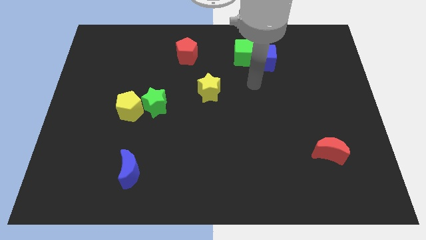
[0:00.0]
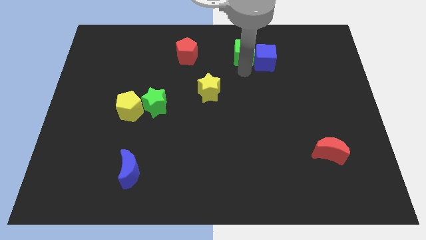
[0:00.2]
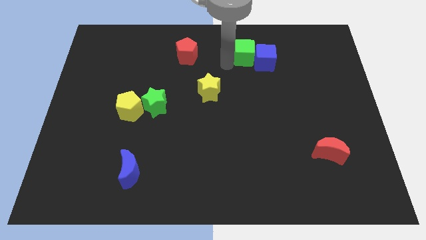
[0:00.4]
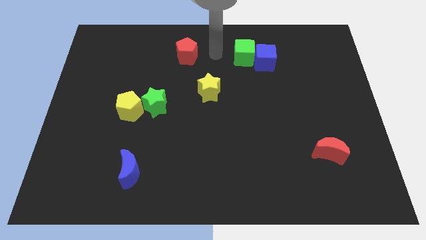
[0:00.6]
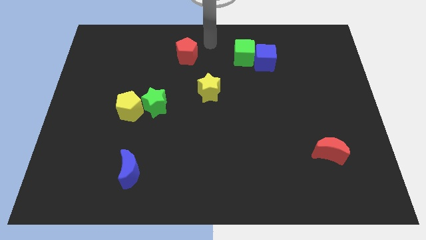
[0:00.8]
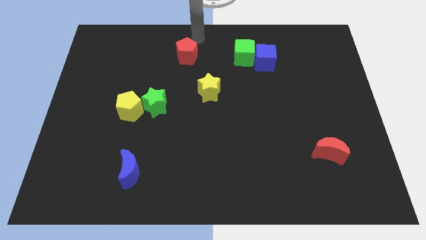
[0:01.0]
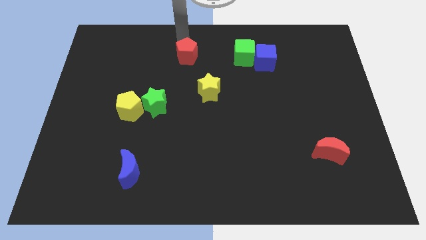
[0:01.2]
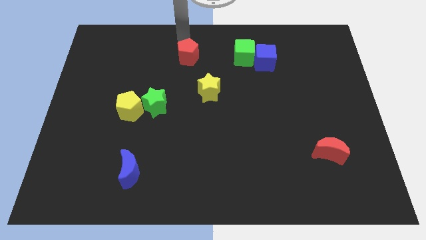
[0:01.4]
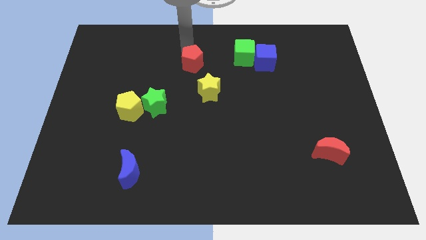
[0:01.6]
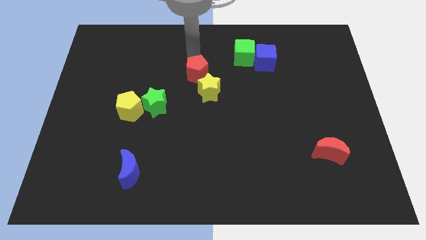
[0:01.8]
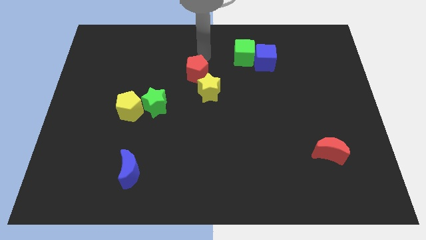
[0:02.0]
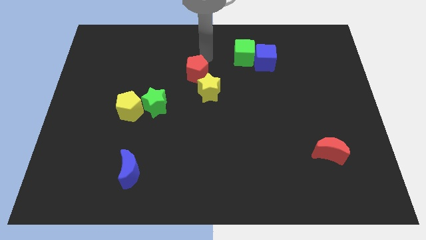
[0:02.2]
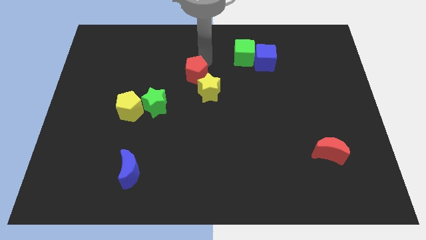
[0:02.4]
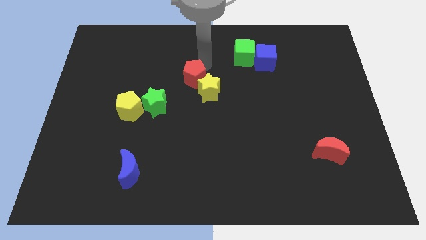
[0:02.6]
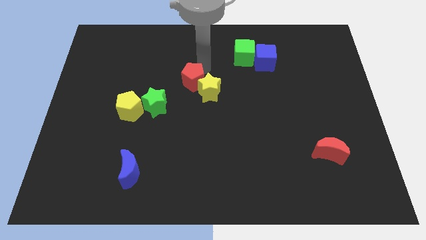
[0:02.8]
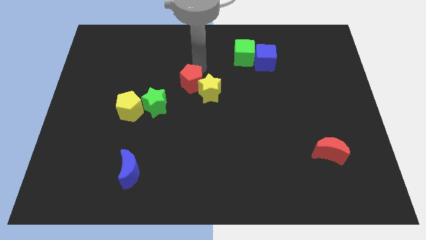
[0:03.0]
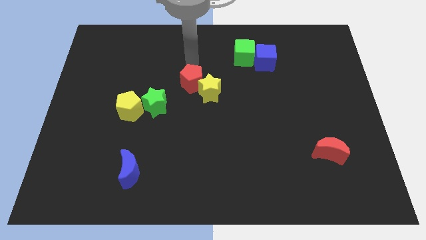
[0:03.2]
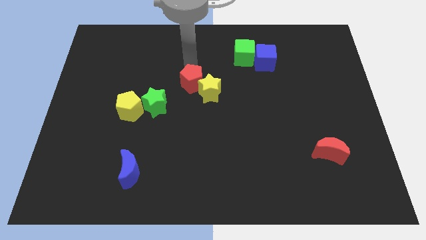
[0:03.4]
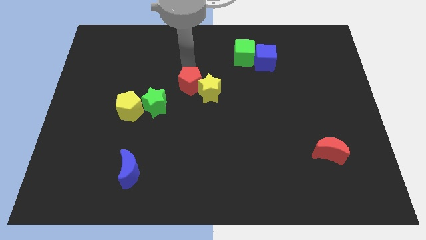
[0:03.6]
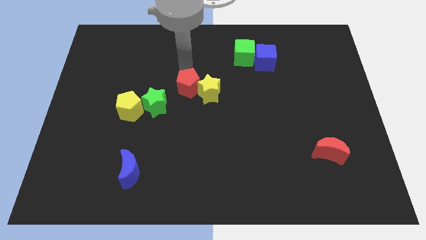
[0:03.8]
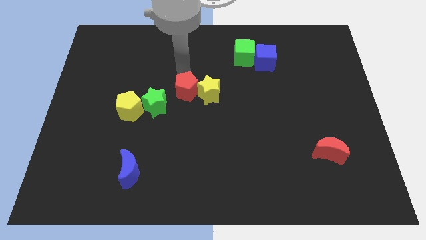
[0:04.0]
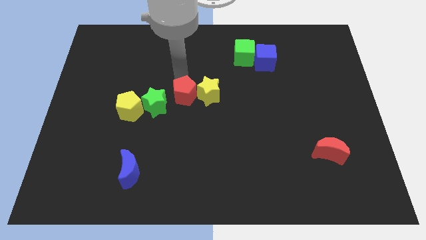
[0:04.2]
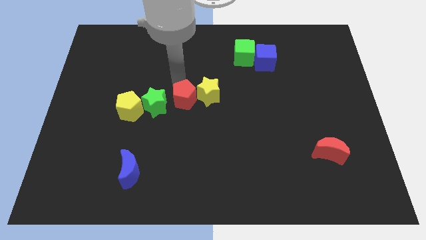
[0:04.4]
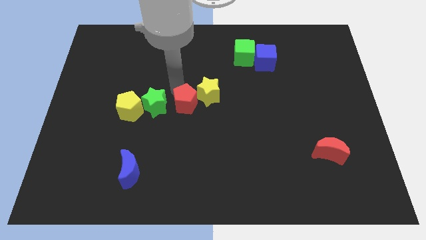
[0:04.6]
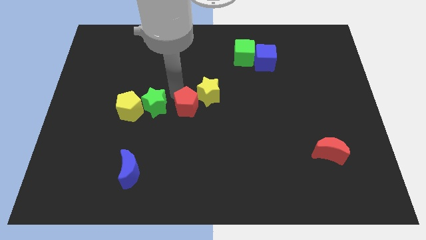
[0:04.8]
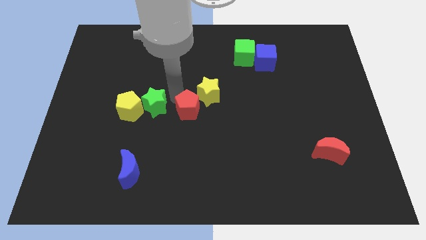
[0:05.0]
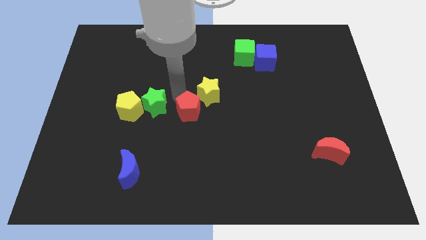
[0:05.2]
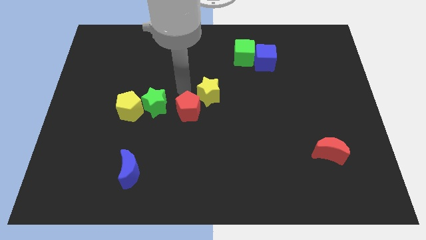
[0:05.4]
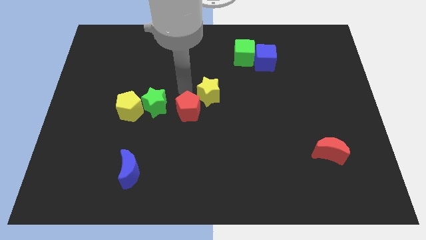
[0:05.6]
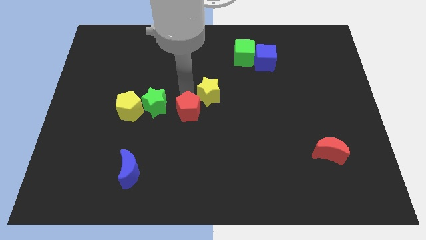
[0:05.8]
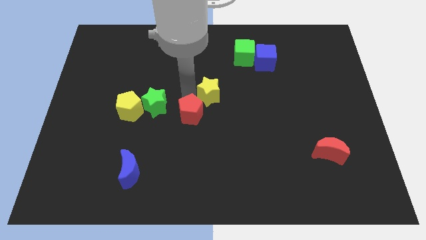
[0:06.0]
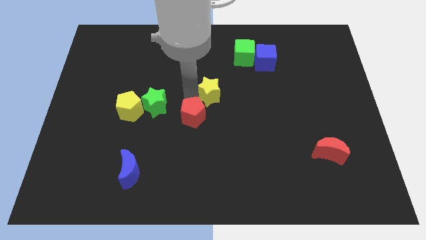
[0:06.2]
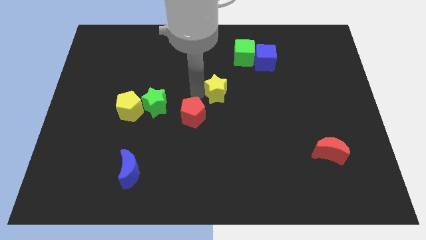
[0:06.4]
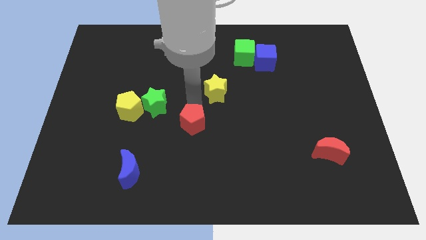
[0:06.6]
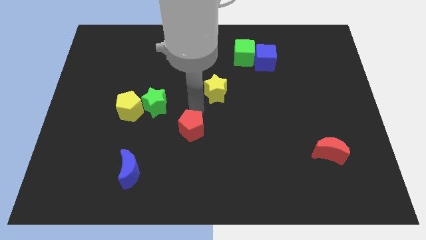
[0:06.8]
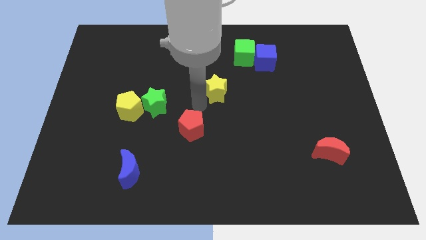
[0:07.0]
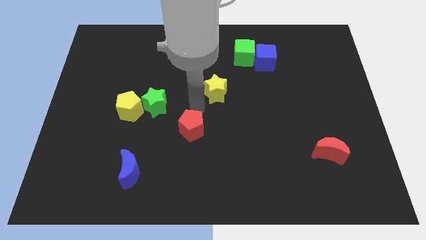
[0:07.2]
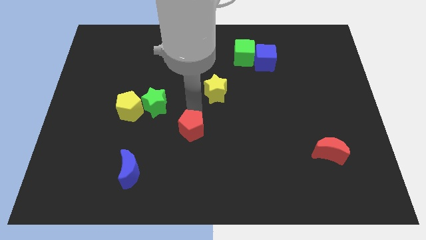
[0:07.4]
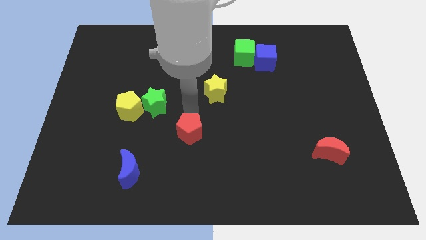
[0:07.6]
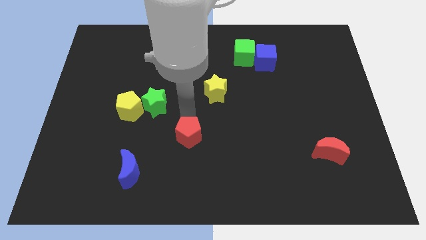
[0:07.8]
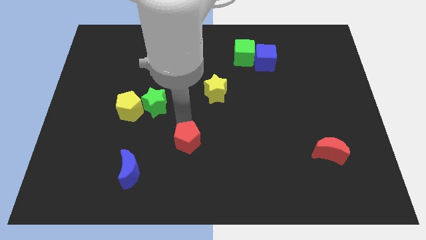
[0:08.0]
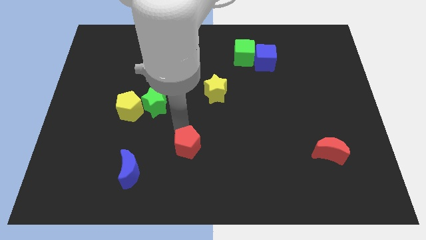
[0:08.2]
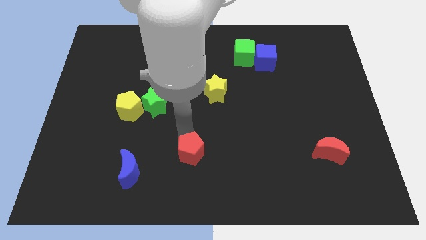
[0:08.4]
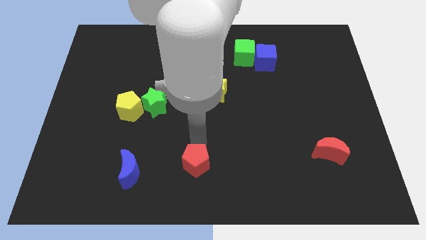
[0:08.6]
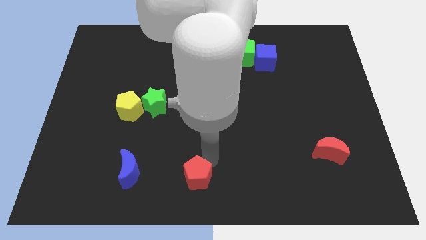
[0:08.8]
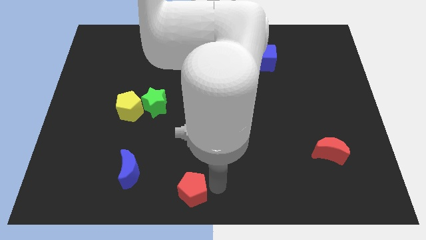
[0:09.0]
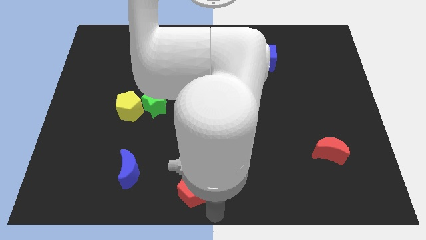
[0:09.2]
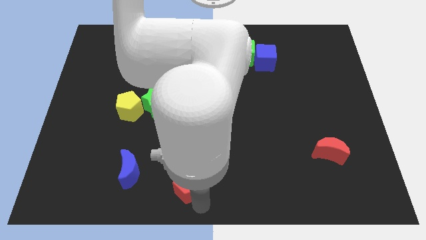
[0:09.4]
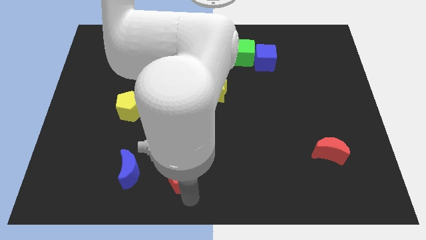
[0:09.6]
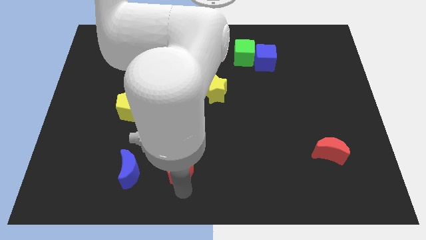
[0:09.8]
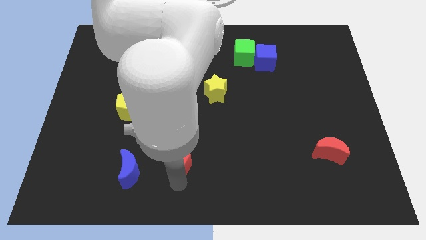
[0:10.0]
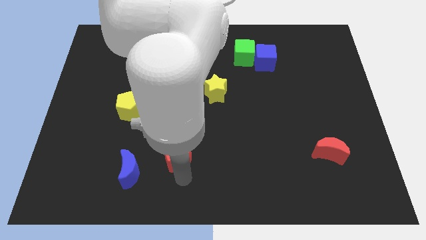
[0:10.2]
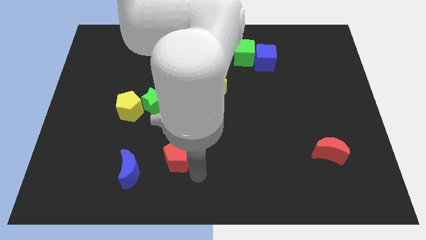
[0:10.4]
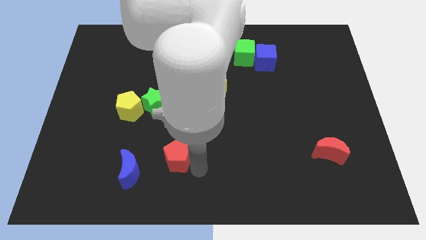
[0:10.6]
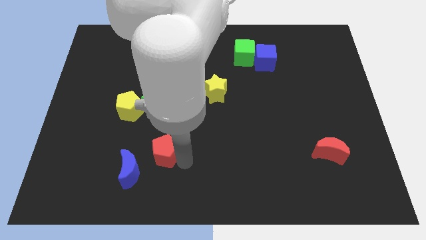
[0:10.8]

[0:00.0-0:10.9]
push the red pentagon to the bottom side of the green star

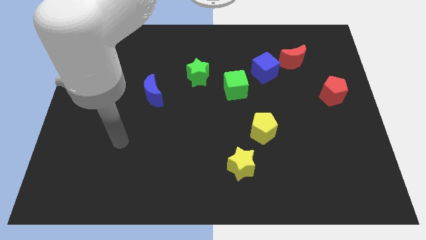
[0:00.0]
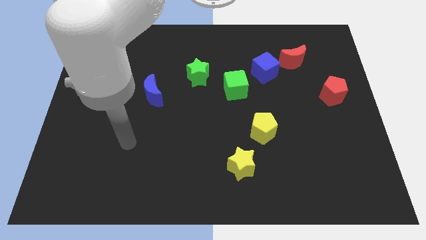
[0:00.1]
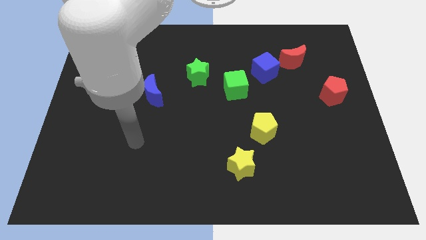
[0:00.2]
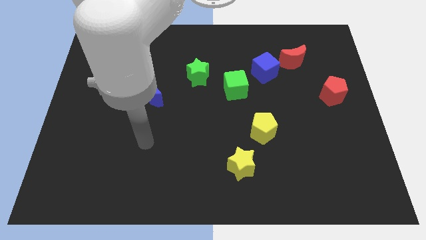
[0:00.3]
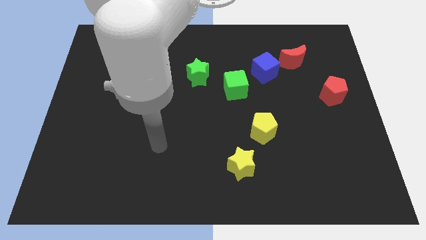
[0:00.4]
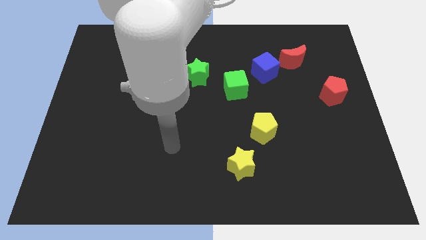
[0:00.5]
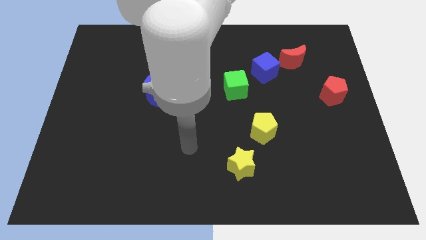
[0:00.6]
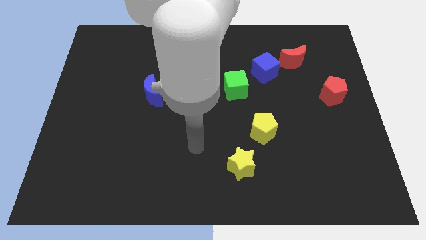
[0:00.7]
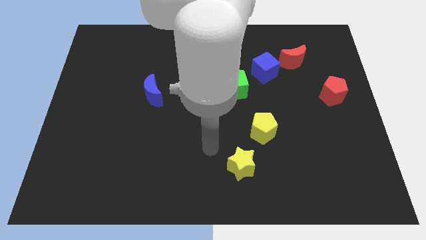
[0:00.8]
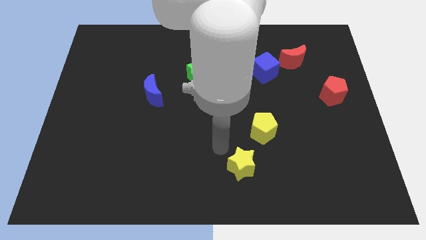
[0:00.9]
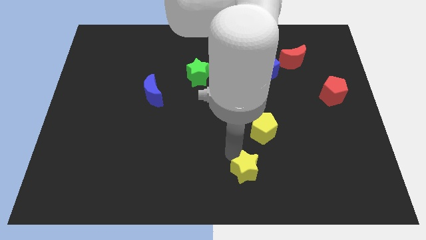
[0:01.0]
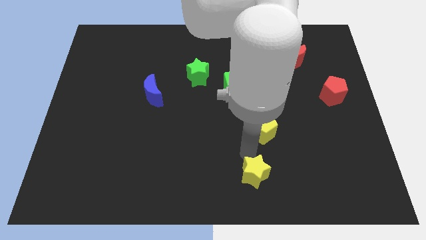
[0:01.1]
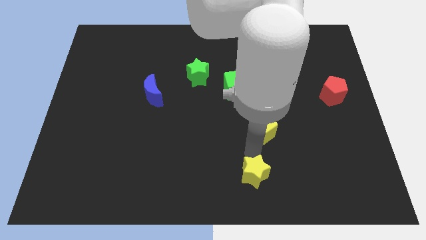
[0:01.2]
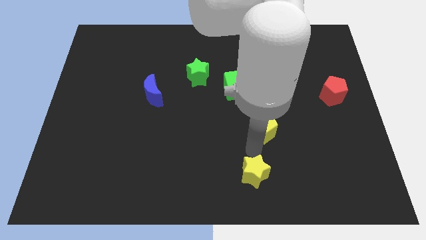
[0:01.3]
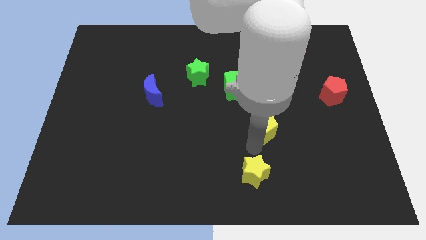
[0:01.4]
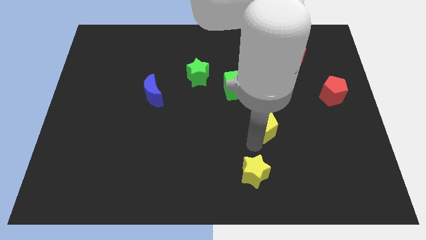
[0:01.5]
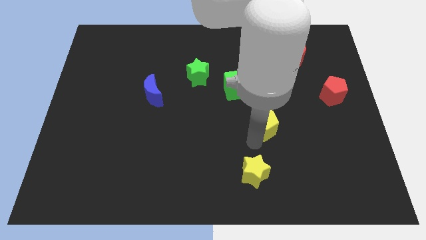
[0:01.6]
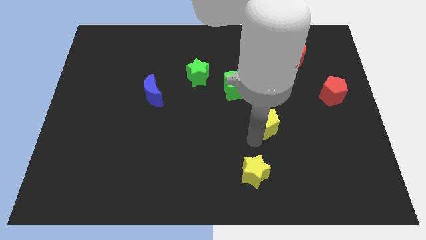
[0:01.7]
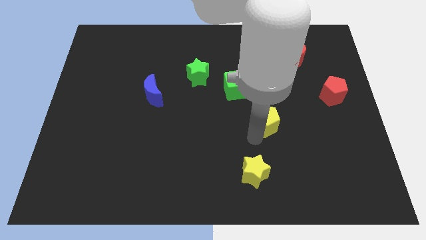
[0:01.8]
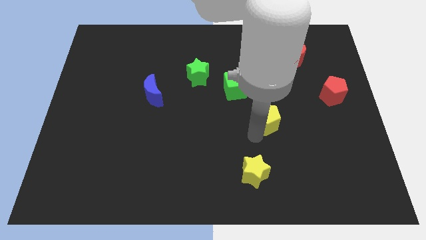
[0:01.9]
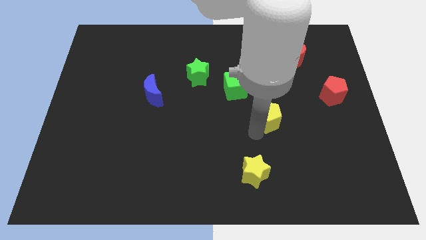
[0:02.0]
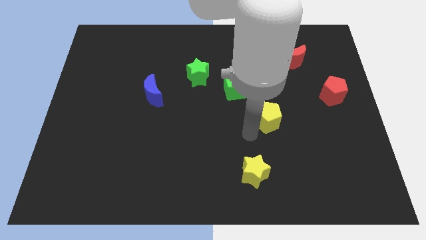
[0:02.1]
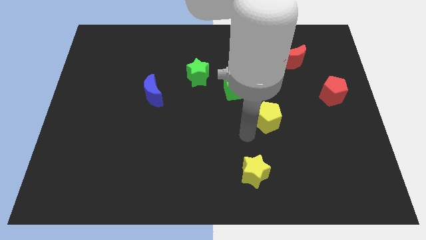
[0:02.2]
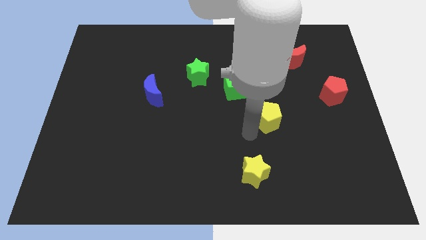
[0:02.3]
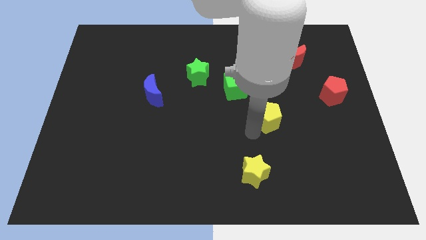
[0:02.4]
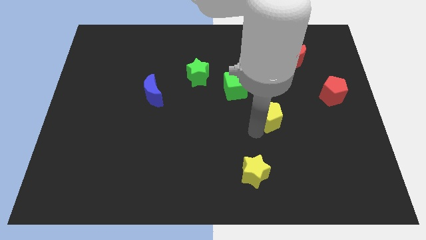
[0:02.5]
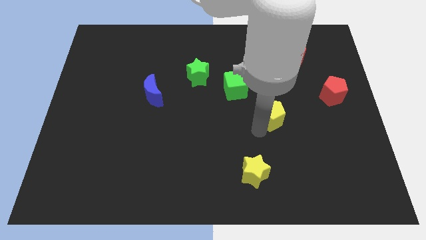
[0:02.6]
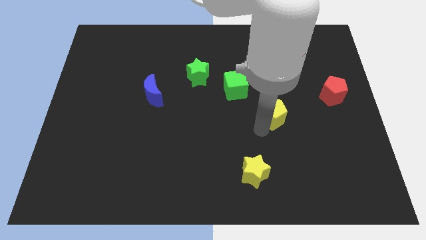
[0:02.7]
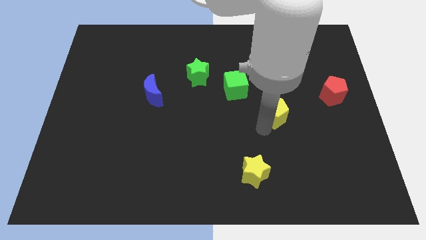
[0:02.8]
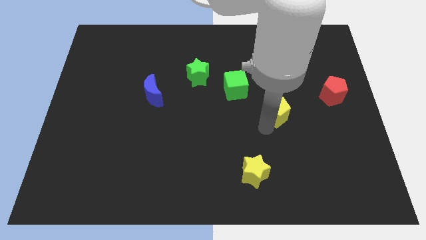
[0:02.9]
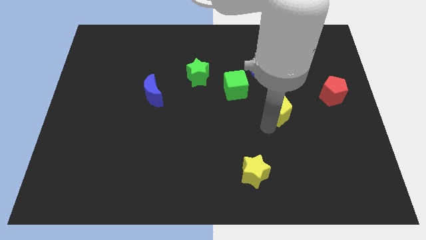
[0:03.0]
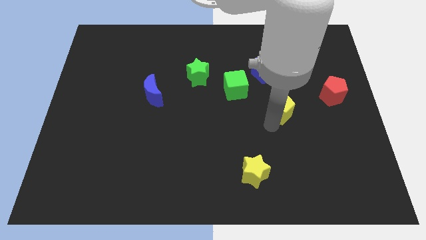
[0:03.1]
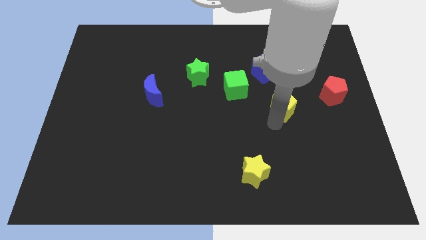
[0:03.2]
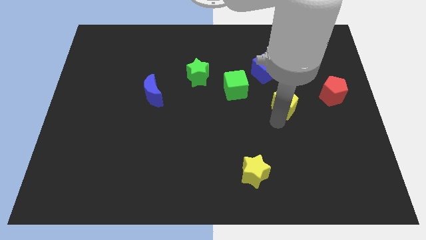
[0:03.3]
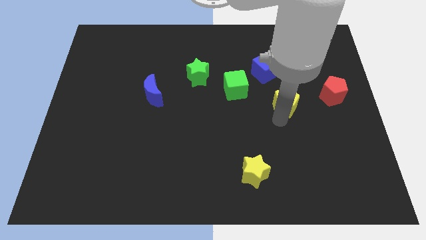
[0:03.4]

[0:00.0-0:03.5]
slide the yellow pentagon below the red moon
